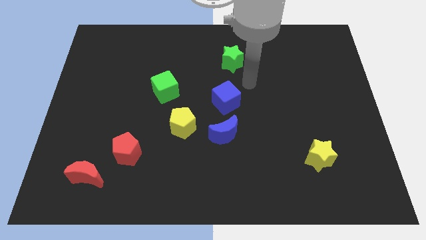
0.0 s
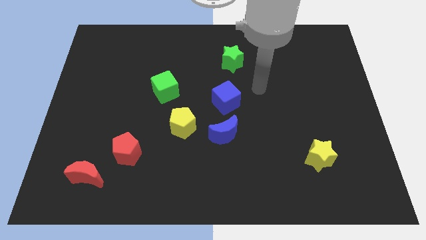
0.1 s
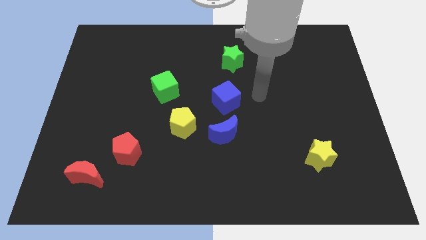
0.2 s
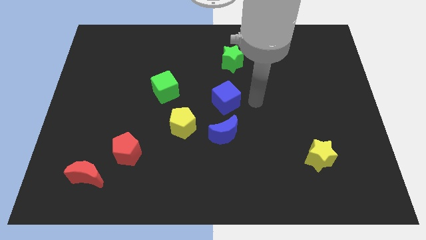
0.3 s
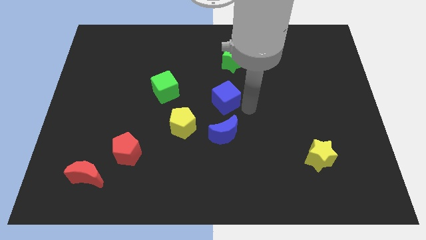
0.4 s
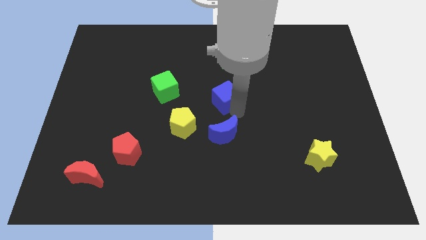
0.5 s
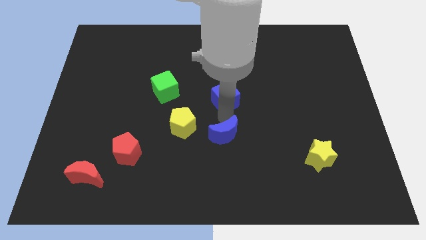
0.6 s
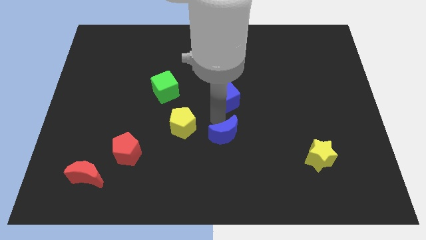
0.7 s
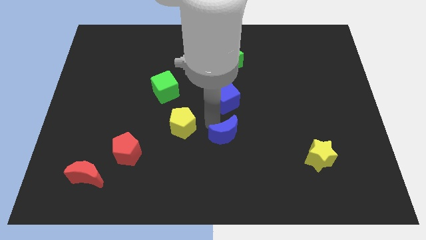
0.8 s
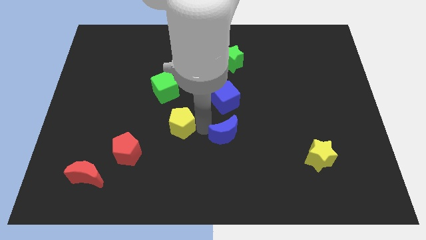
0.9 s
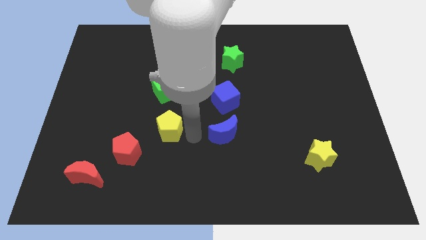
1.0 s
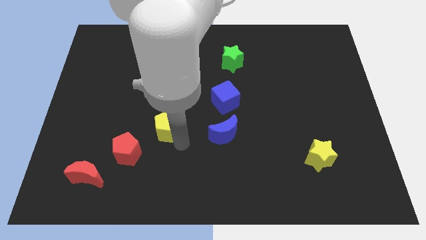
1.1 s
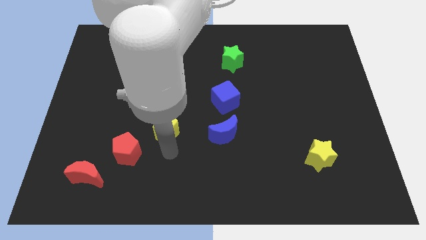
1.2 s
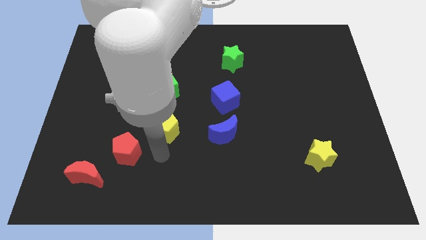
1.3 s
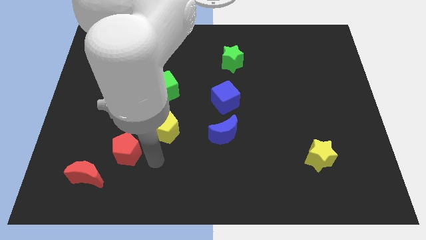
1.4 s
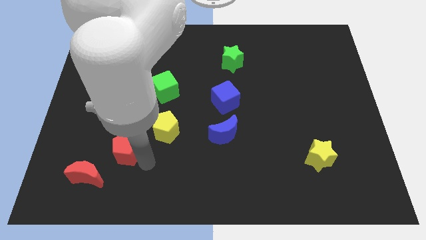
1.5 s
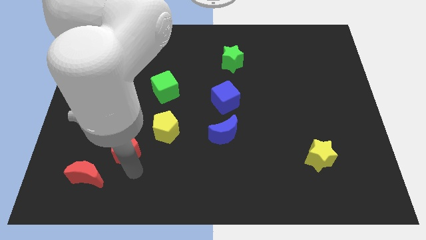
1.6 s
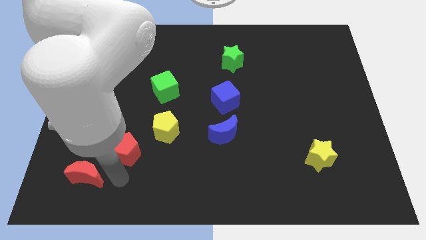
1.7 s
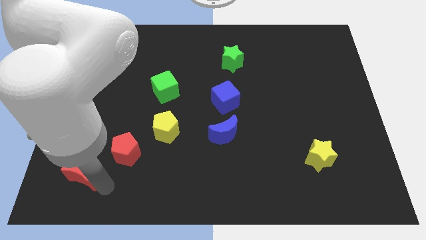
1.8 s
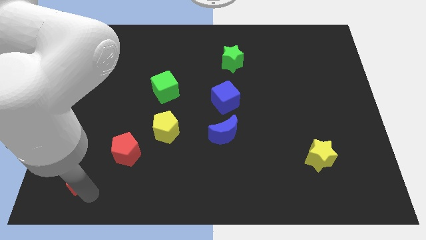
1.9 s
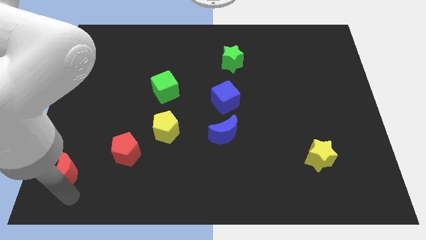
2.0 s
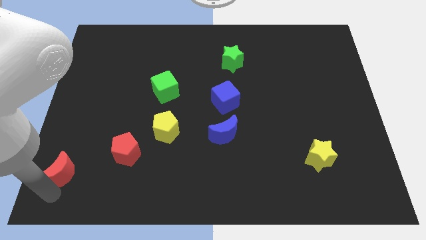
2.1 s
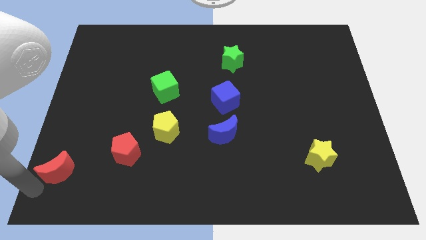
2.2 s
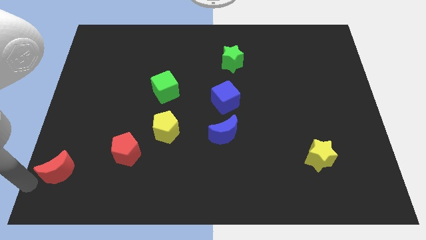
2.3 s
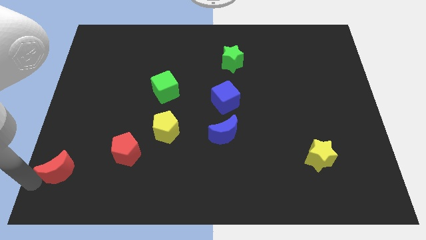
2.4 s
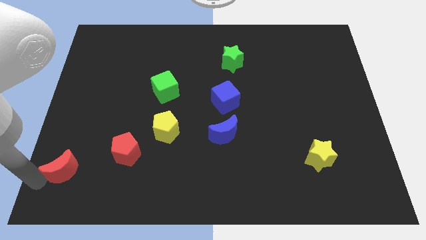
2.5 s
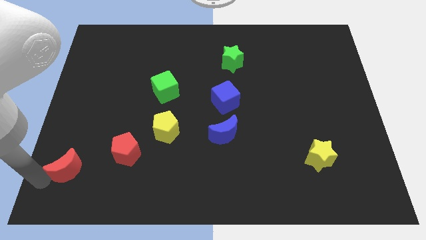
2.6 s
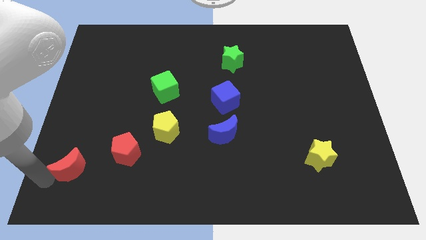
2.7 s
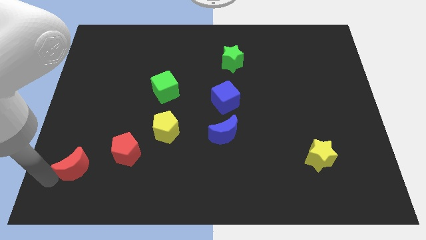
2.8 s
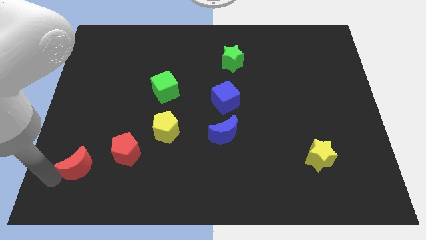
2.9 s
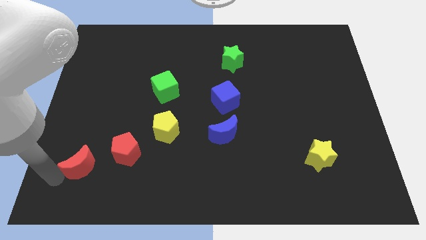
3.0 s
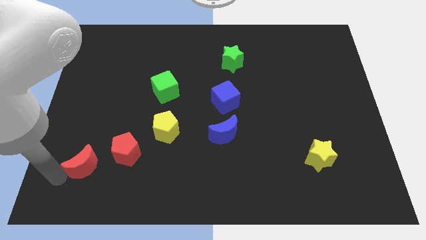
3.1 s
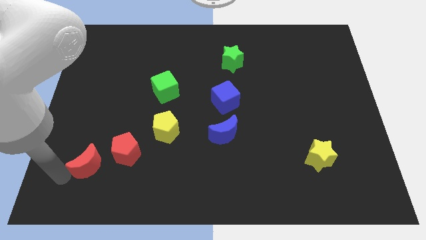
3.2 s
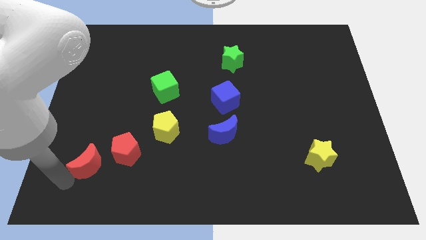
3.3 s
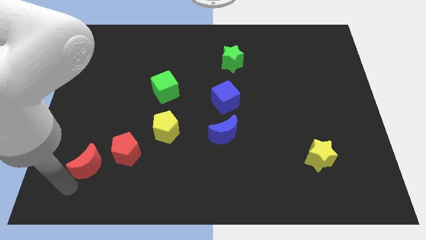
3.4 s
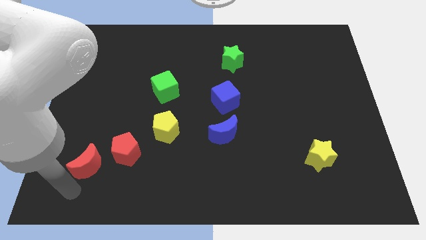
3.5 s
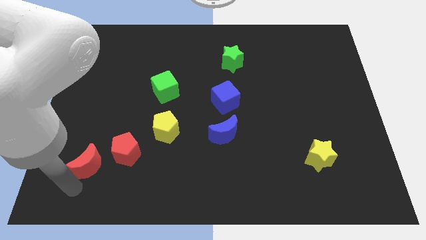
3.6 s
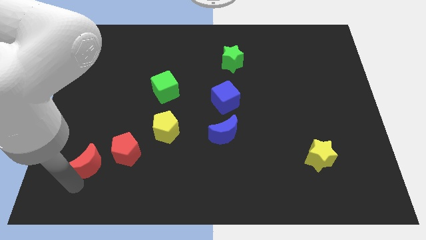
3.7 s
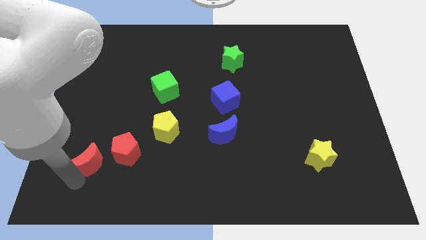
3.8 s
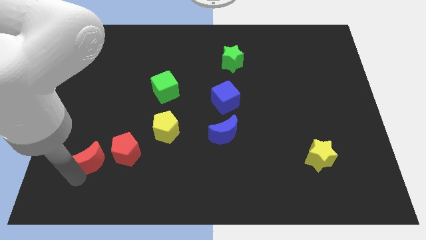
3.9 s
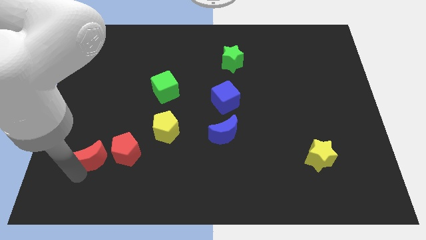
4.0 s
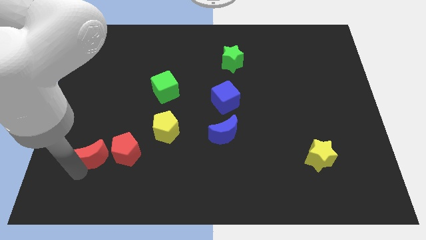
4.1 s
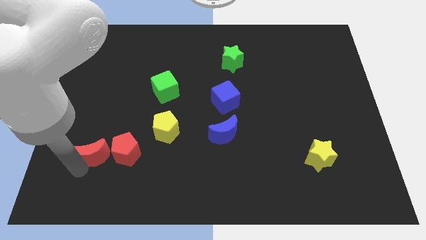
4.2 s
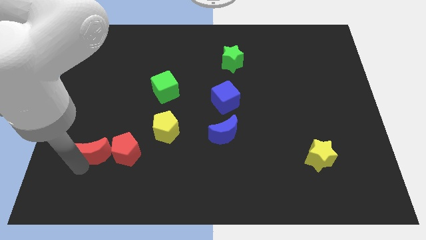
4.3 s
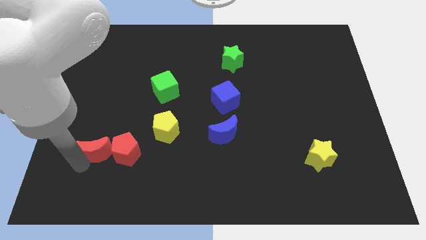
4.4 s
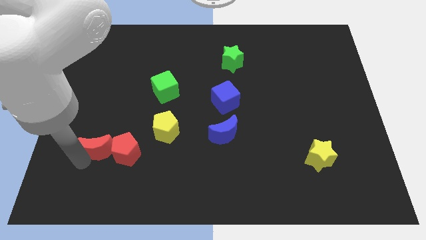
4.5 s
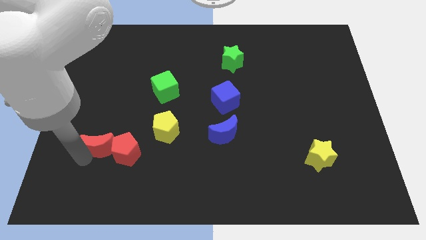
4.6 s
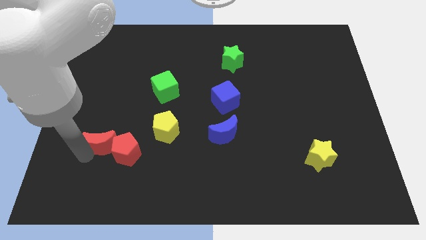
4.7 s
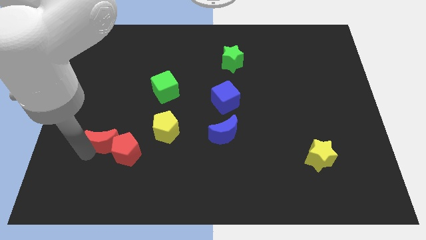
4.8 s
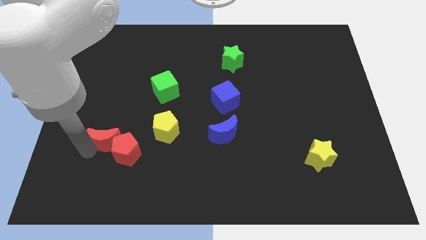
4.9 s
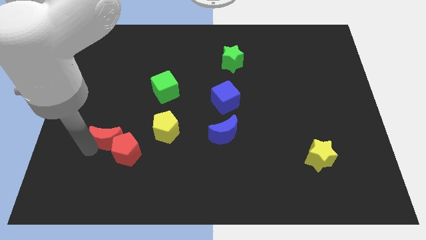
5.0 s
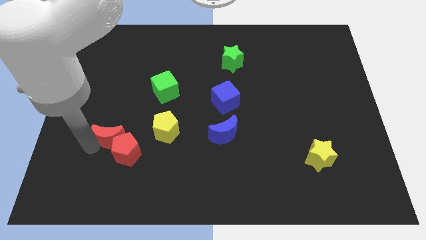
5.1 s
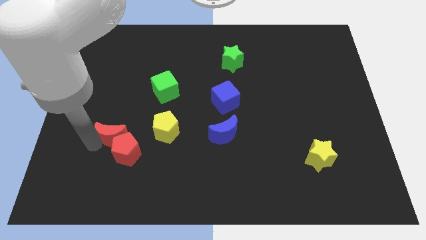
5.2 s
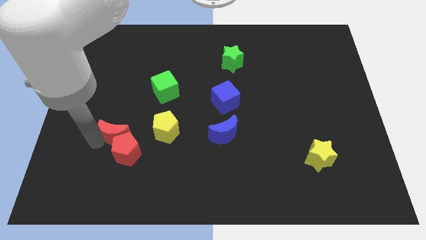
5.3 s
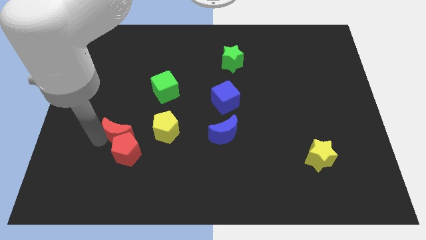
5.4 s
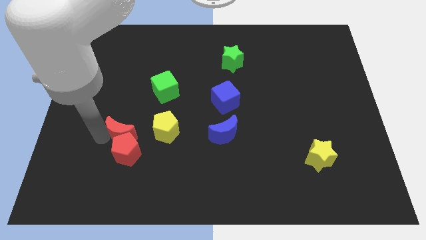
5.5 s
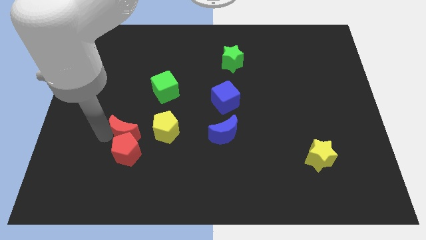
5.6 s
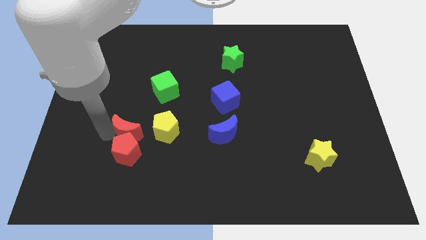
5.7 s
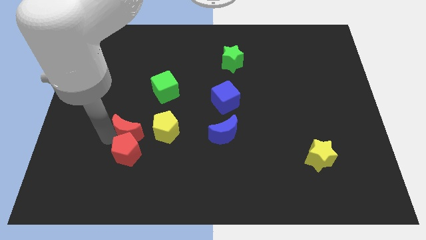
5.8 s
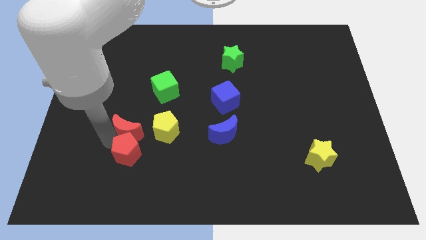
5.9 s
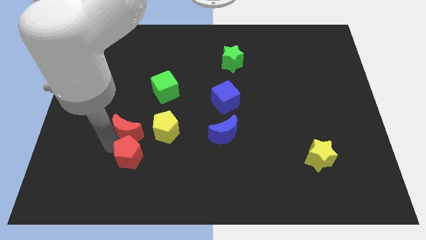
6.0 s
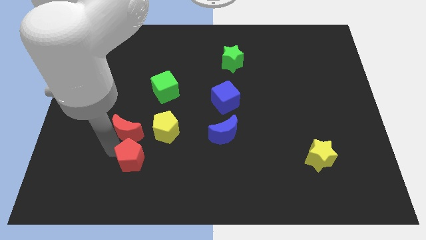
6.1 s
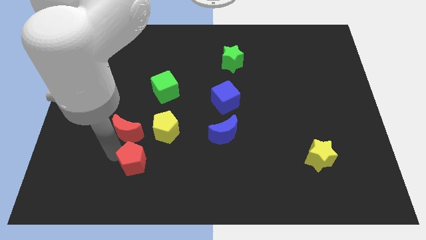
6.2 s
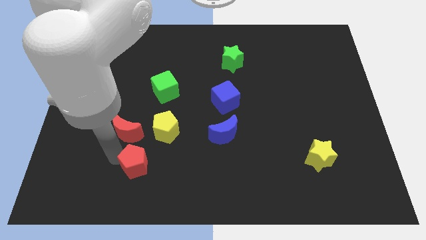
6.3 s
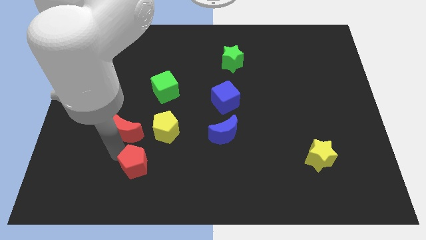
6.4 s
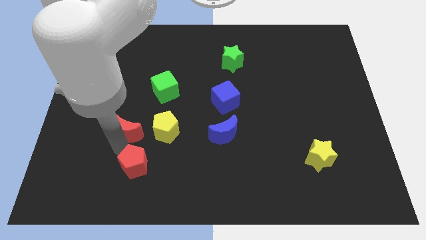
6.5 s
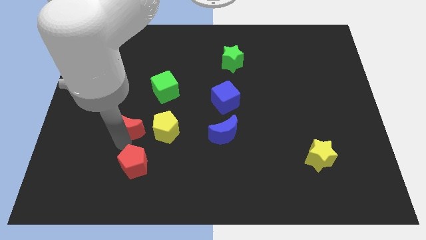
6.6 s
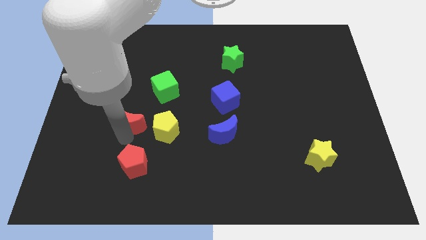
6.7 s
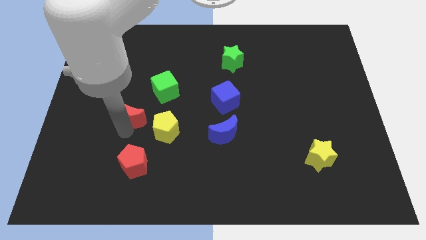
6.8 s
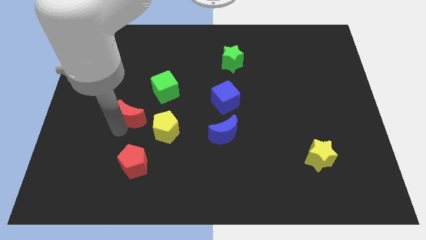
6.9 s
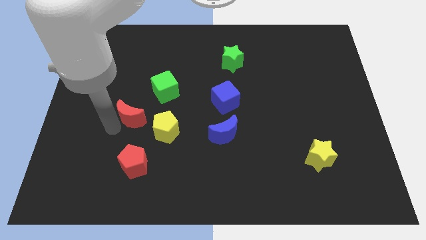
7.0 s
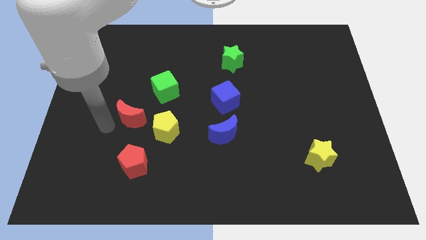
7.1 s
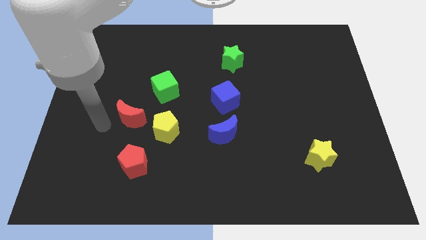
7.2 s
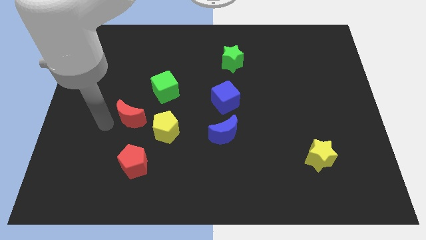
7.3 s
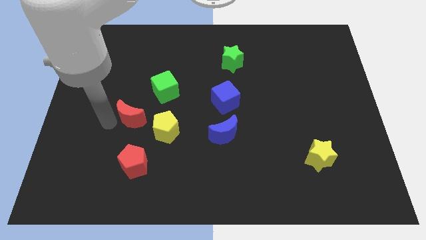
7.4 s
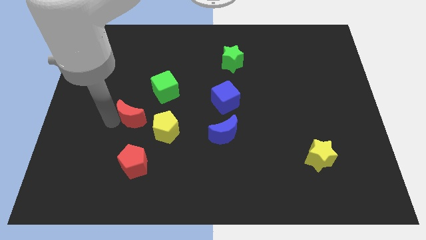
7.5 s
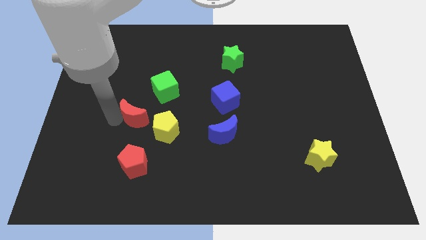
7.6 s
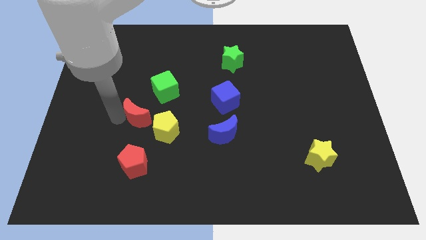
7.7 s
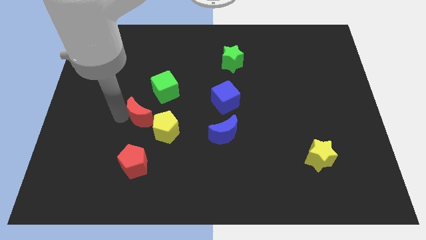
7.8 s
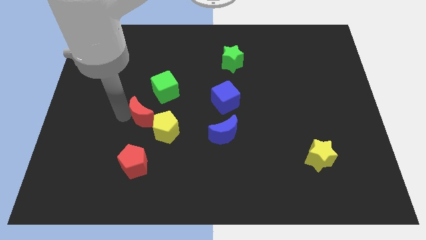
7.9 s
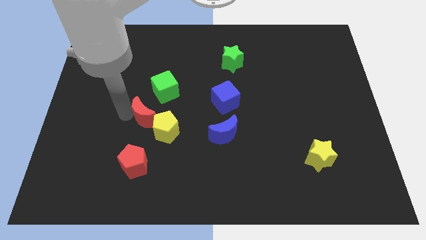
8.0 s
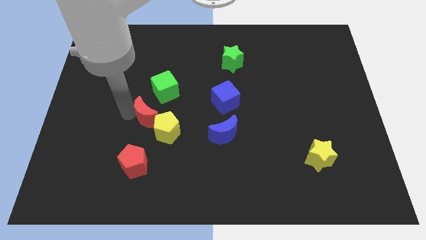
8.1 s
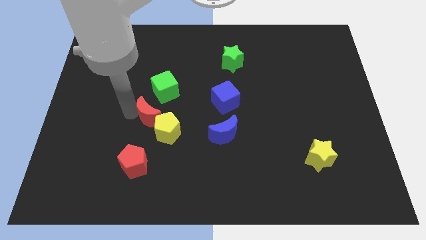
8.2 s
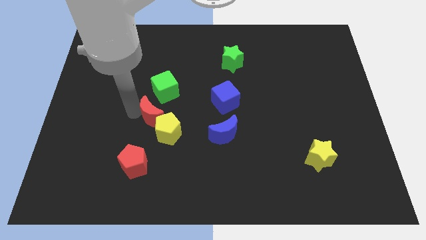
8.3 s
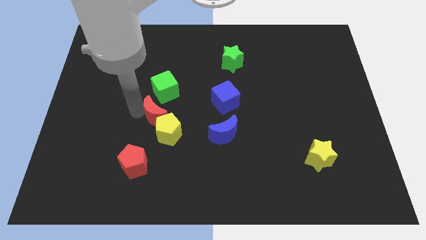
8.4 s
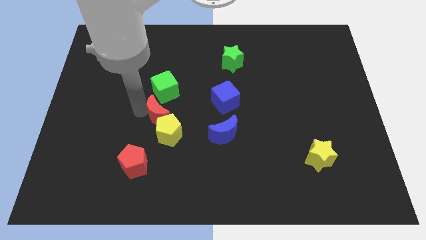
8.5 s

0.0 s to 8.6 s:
move the red moon diagonally up and right
